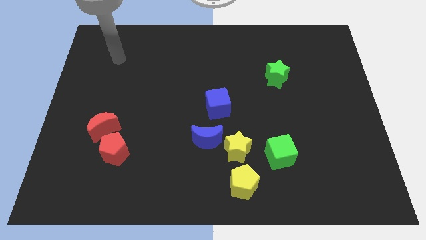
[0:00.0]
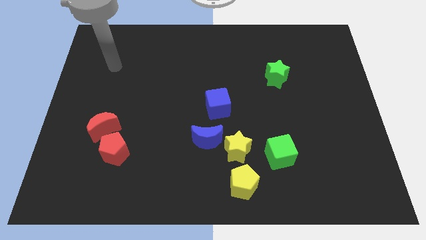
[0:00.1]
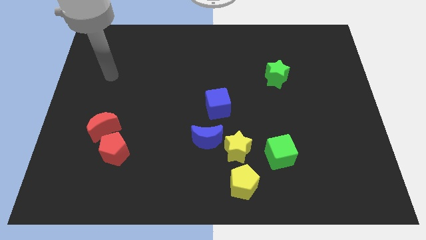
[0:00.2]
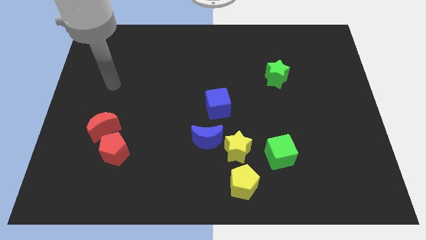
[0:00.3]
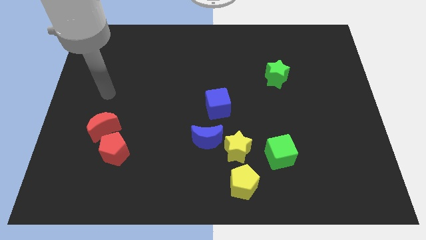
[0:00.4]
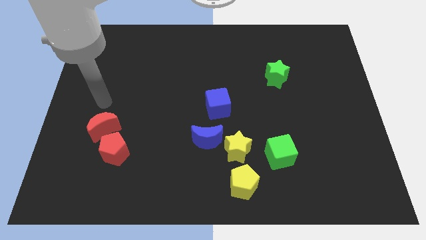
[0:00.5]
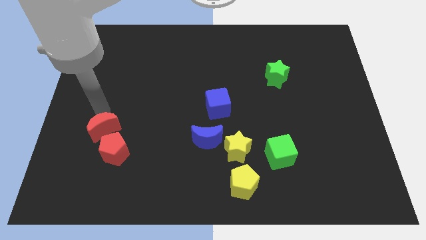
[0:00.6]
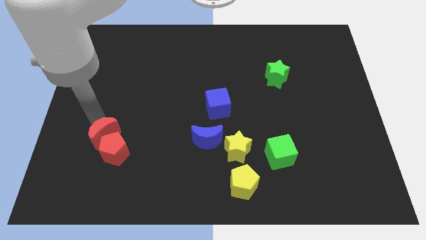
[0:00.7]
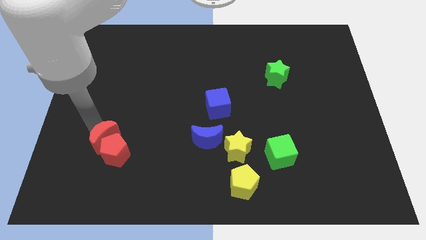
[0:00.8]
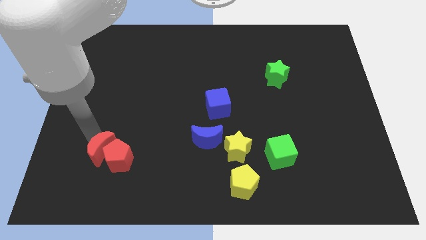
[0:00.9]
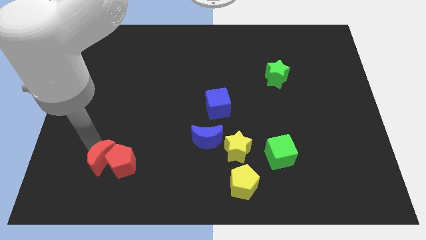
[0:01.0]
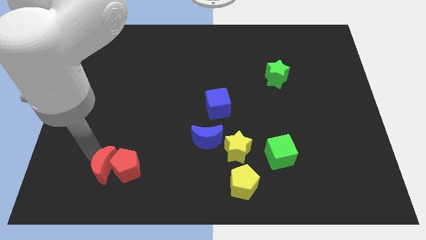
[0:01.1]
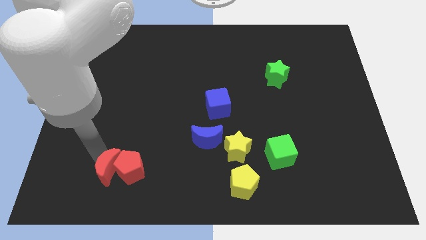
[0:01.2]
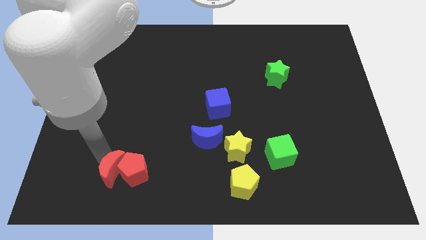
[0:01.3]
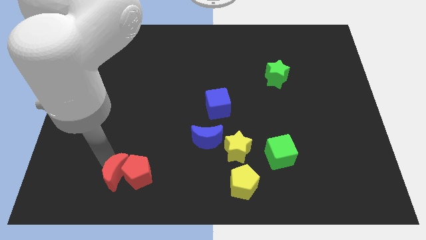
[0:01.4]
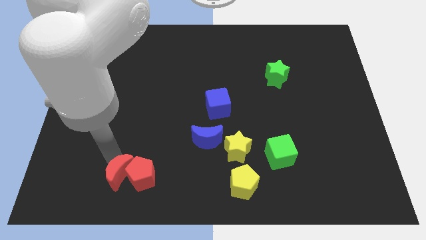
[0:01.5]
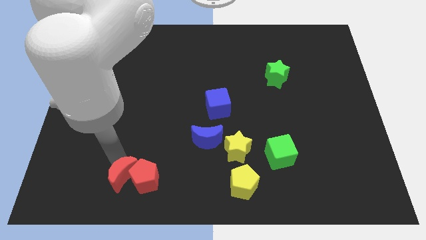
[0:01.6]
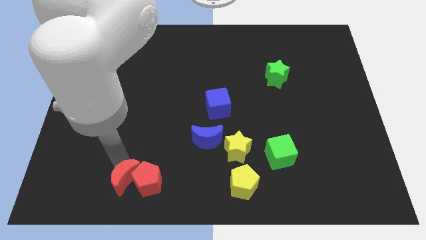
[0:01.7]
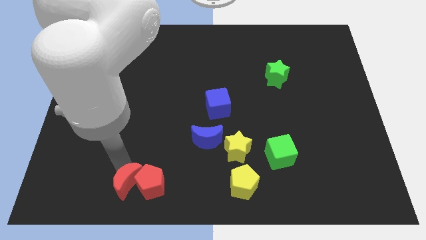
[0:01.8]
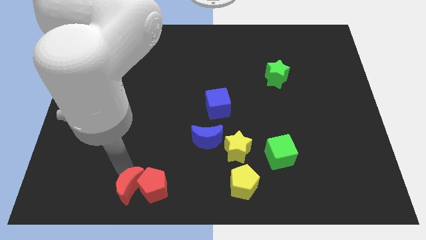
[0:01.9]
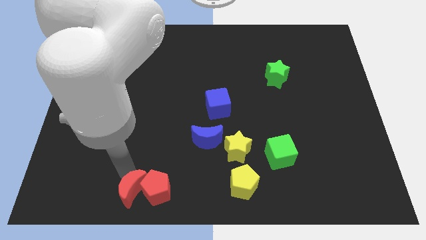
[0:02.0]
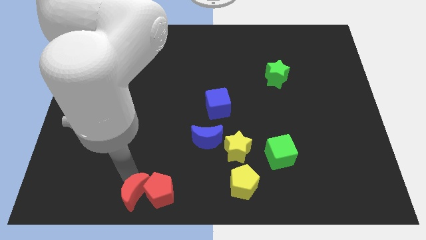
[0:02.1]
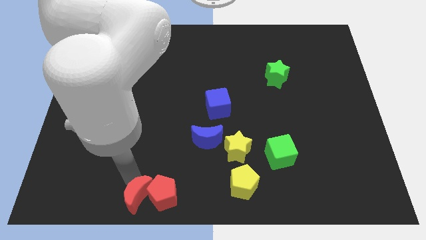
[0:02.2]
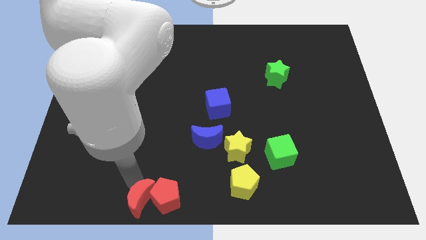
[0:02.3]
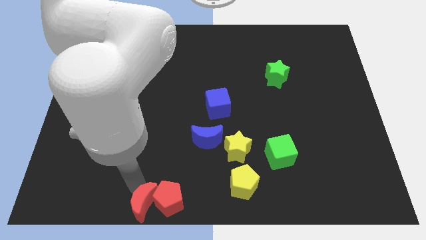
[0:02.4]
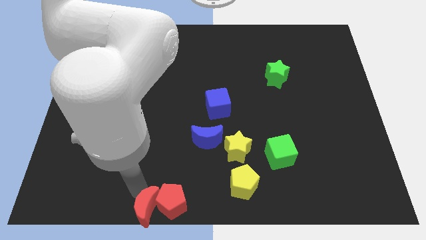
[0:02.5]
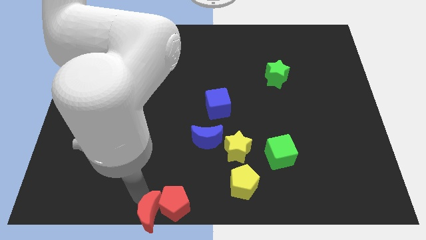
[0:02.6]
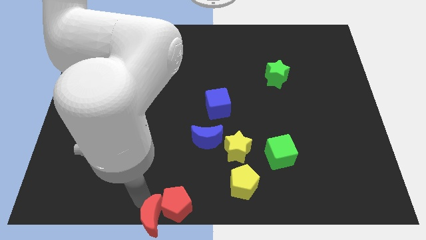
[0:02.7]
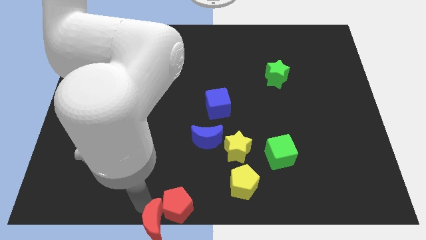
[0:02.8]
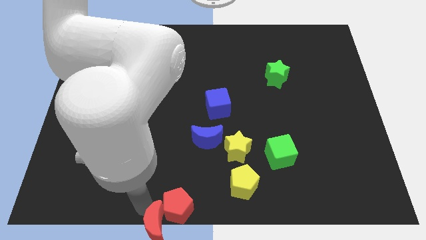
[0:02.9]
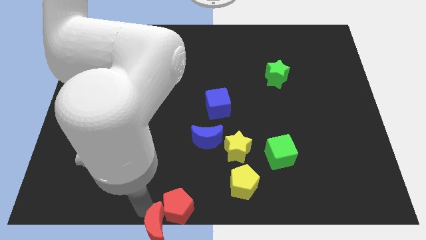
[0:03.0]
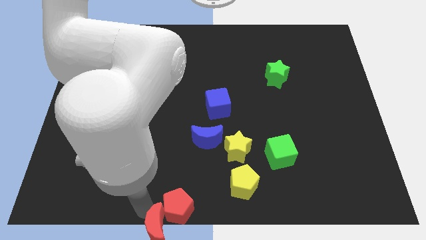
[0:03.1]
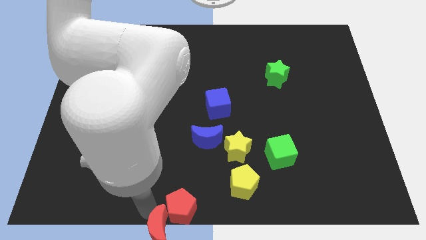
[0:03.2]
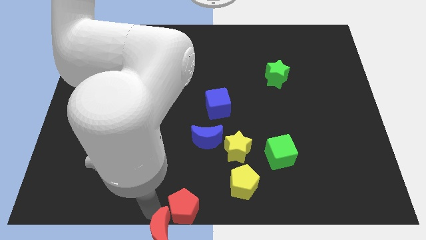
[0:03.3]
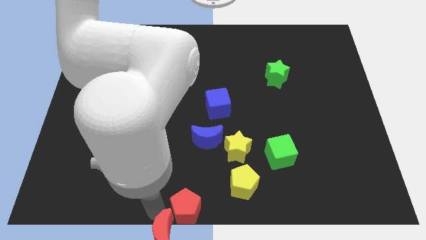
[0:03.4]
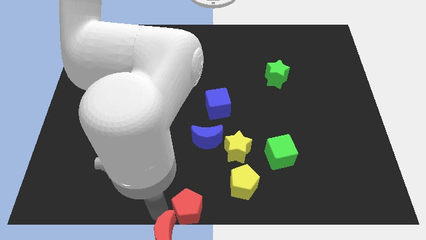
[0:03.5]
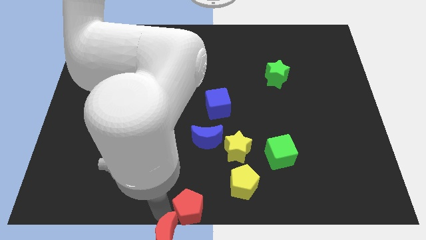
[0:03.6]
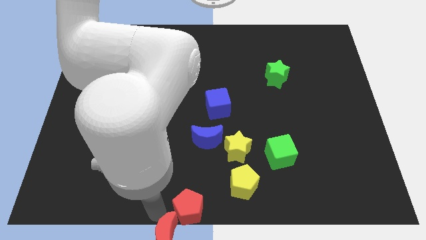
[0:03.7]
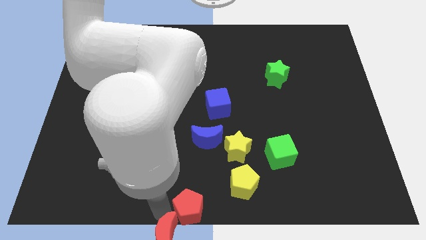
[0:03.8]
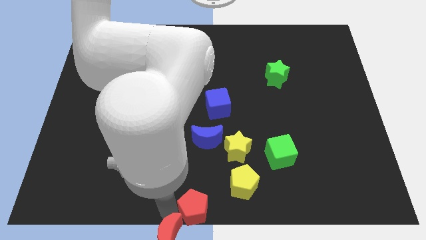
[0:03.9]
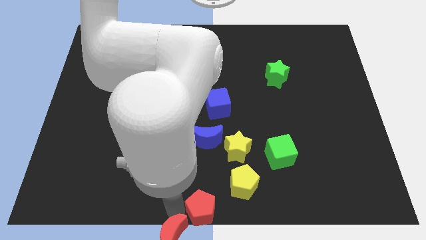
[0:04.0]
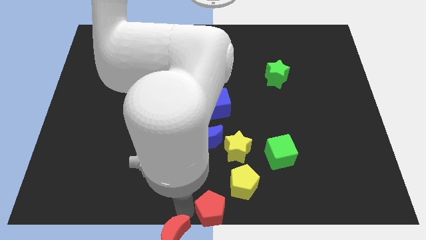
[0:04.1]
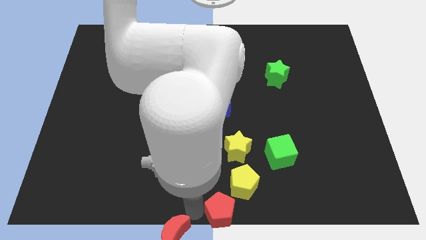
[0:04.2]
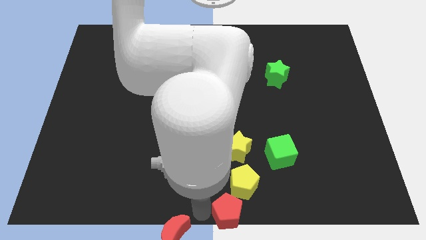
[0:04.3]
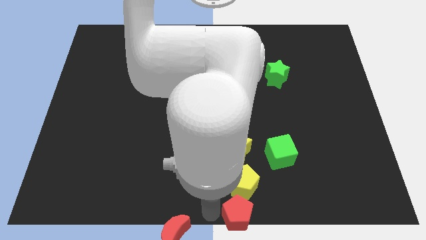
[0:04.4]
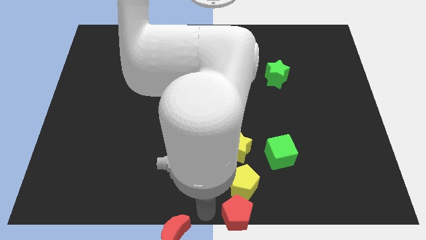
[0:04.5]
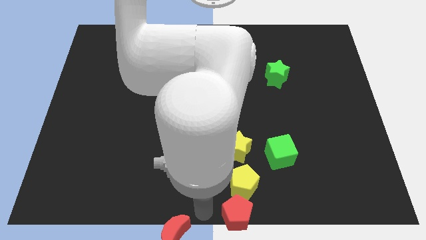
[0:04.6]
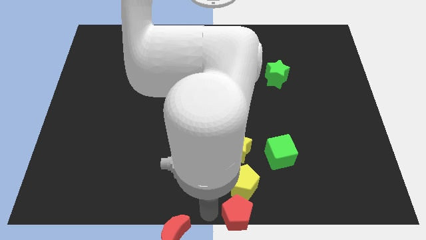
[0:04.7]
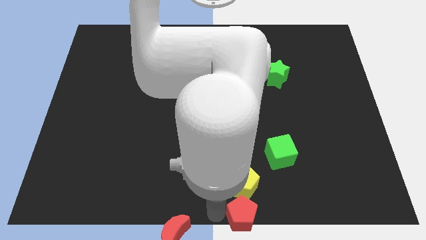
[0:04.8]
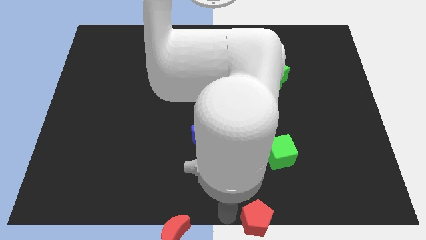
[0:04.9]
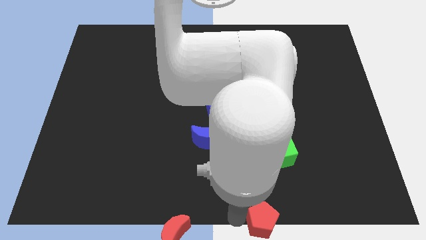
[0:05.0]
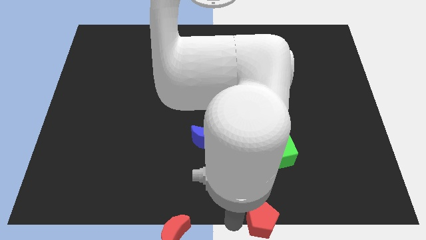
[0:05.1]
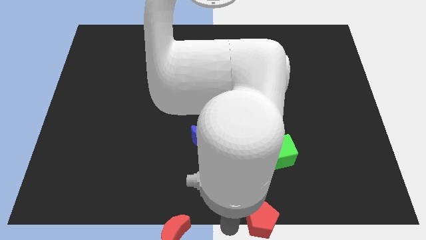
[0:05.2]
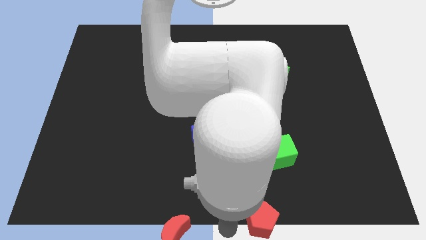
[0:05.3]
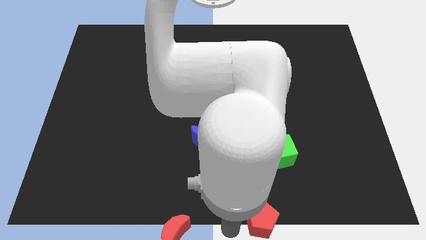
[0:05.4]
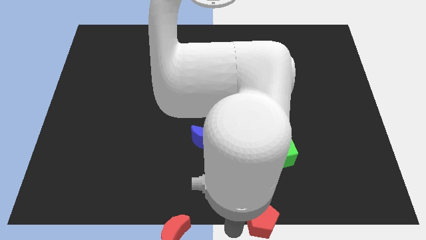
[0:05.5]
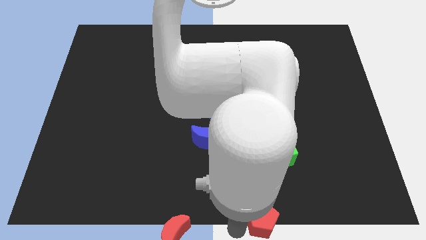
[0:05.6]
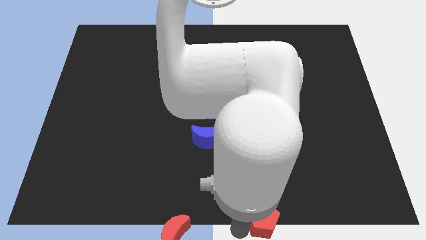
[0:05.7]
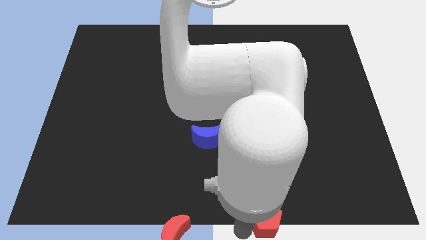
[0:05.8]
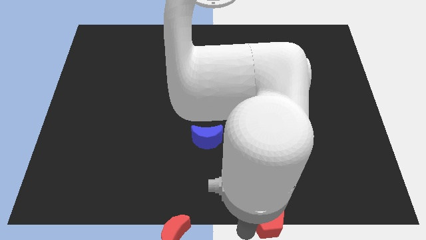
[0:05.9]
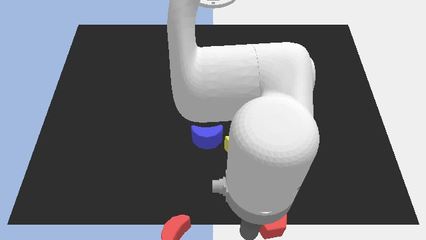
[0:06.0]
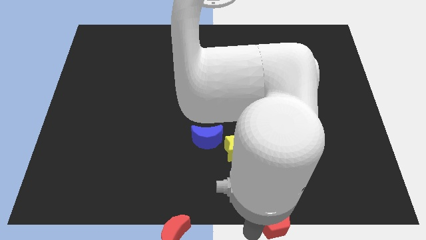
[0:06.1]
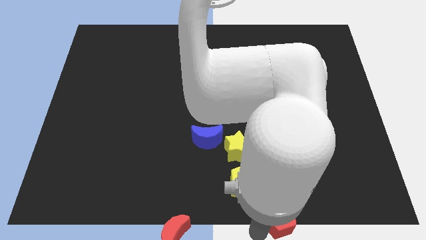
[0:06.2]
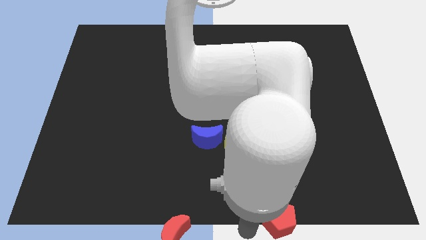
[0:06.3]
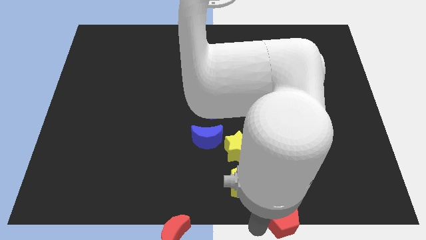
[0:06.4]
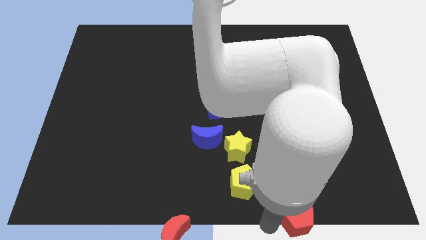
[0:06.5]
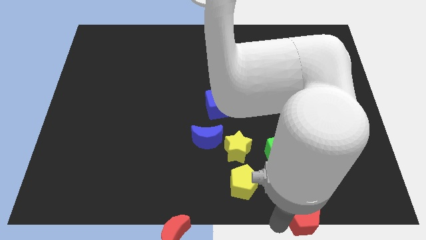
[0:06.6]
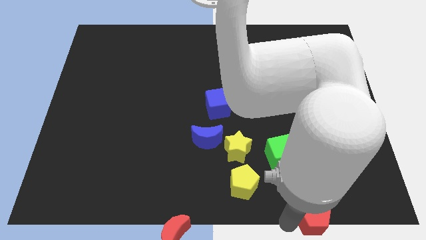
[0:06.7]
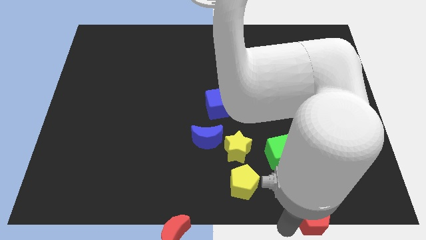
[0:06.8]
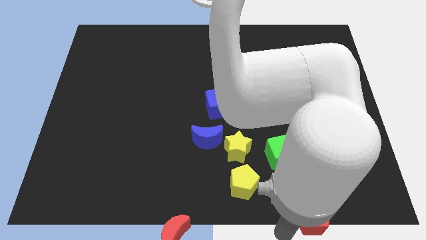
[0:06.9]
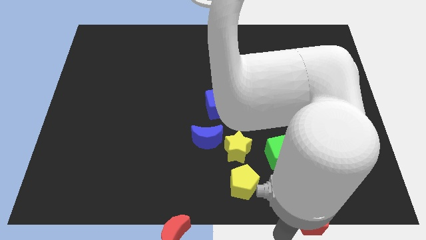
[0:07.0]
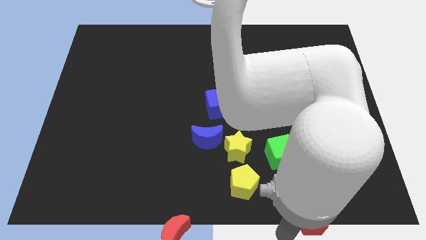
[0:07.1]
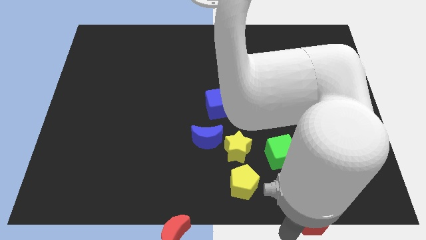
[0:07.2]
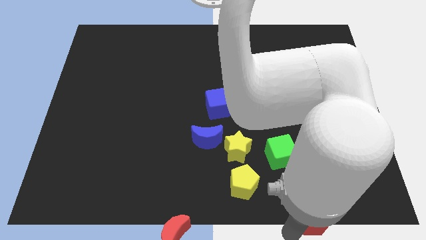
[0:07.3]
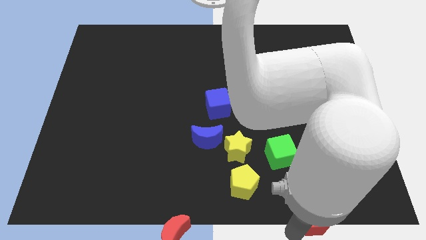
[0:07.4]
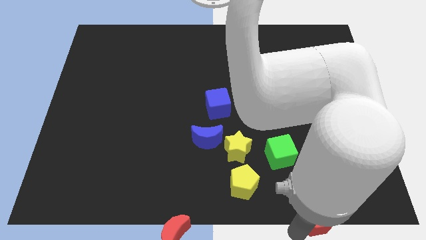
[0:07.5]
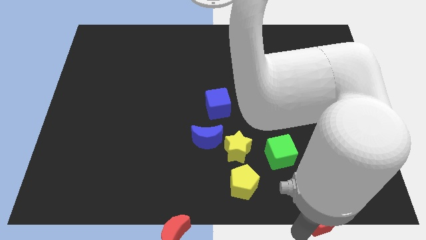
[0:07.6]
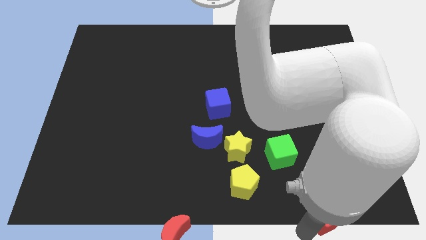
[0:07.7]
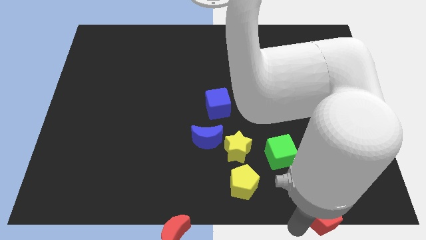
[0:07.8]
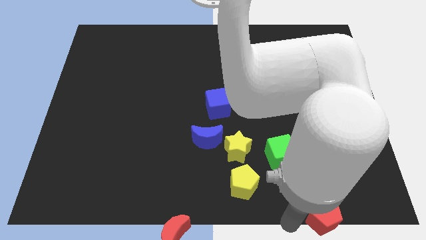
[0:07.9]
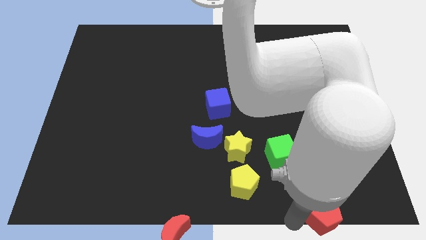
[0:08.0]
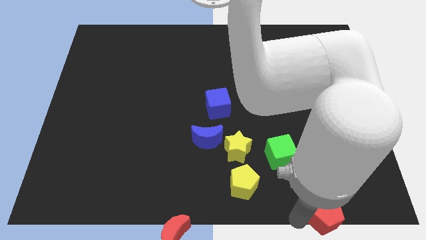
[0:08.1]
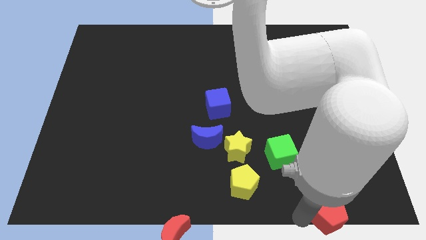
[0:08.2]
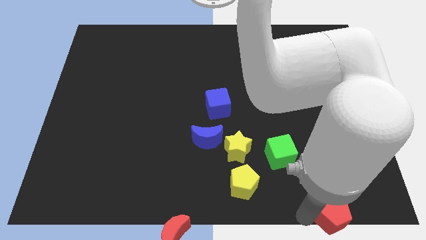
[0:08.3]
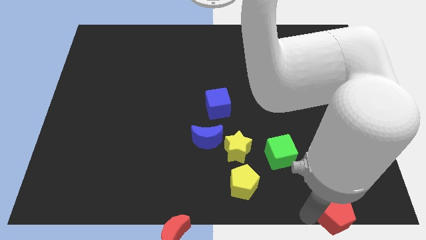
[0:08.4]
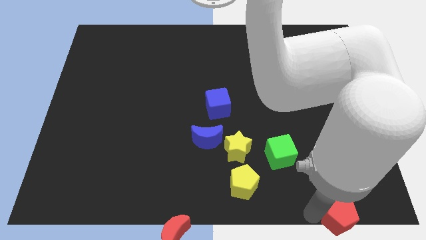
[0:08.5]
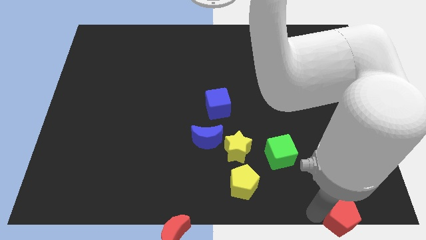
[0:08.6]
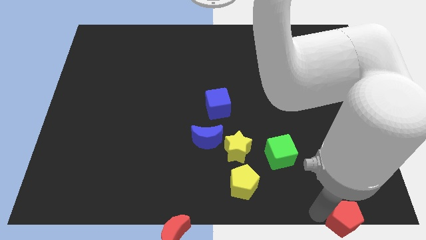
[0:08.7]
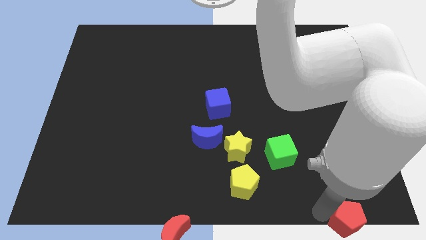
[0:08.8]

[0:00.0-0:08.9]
put the red pentagon to the lower right corner
